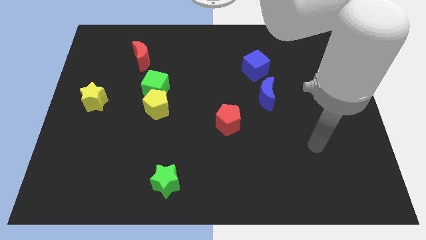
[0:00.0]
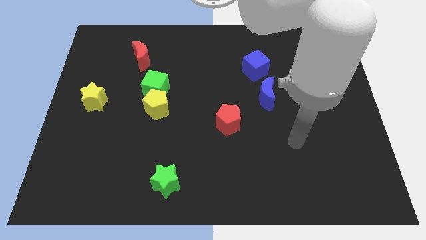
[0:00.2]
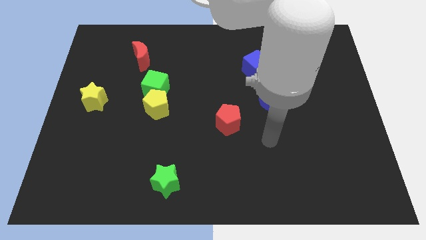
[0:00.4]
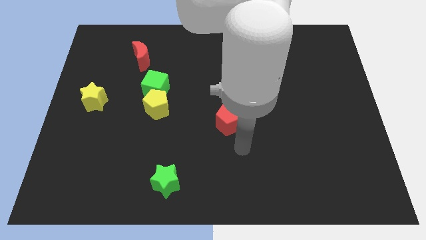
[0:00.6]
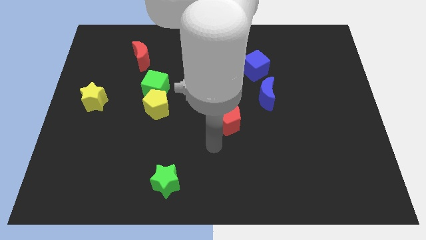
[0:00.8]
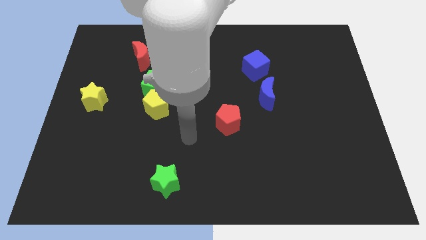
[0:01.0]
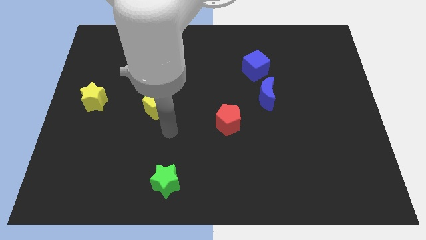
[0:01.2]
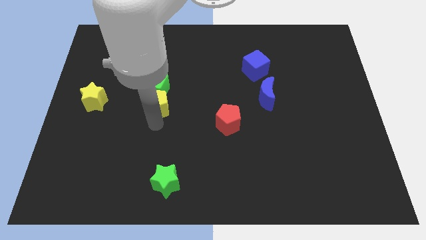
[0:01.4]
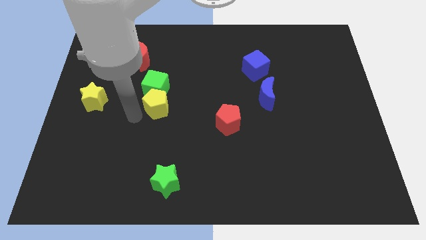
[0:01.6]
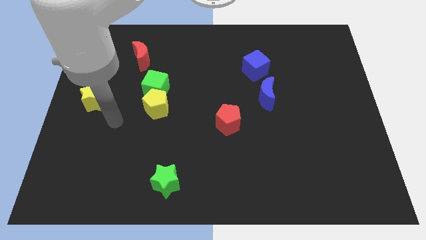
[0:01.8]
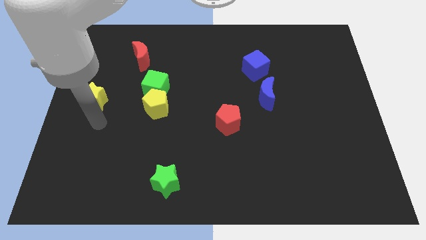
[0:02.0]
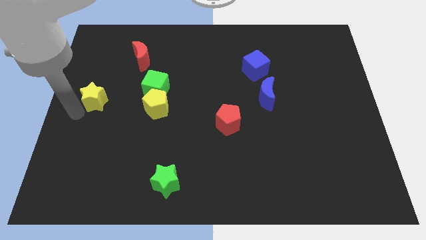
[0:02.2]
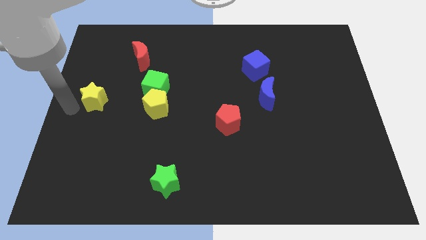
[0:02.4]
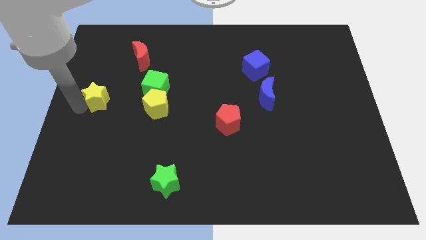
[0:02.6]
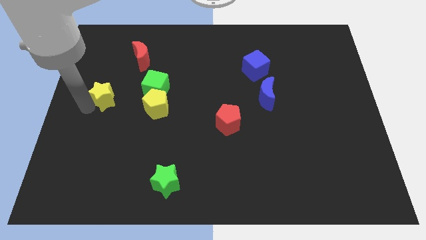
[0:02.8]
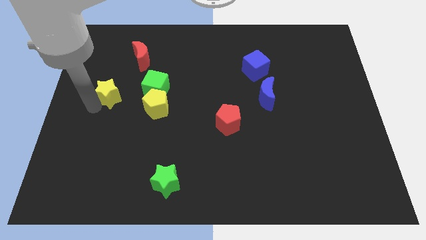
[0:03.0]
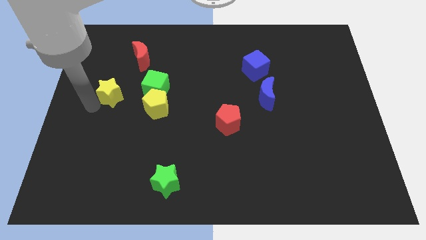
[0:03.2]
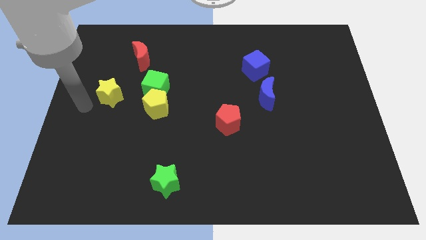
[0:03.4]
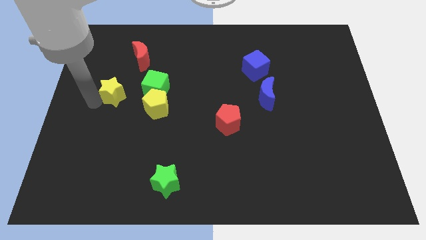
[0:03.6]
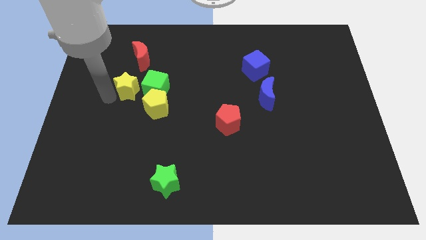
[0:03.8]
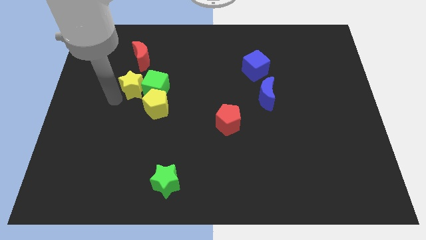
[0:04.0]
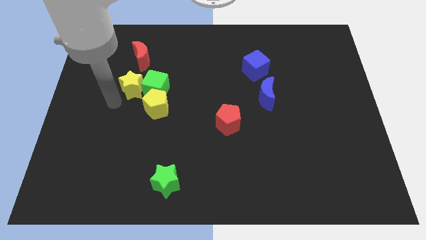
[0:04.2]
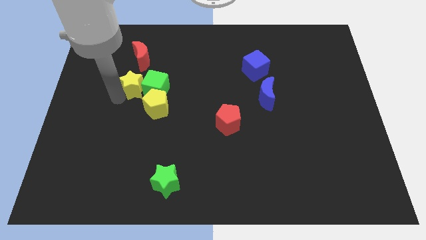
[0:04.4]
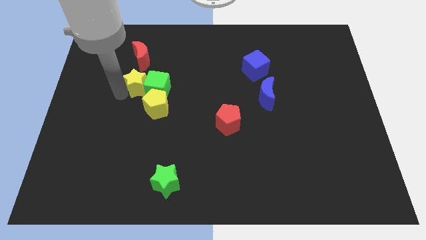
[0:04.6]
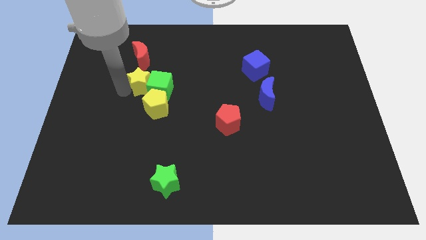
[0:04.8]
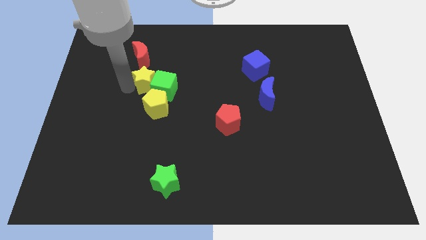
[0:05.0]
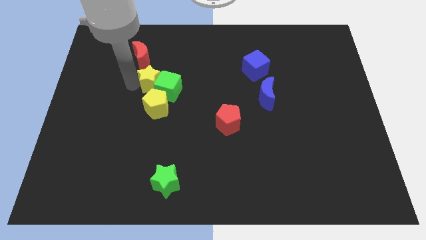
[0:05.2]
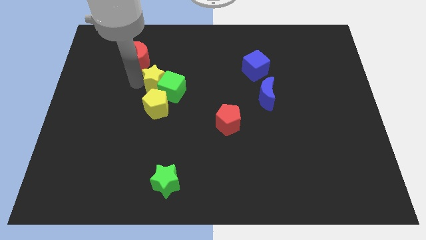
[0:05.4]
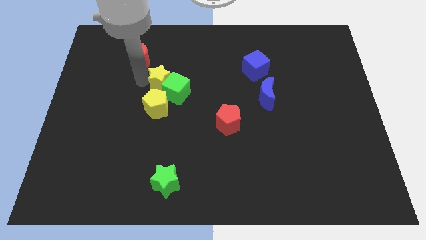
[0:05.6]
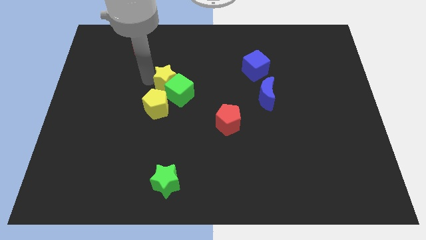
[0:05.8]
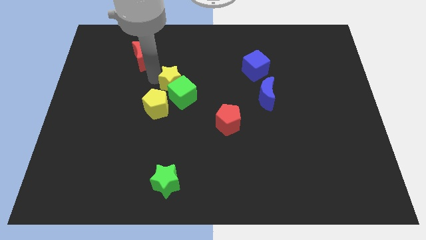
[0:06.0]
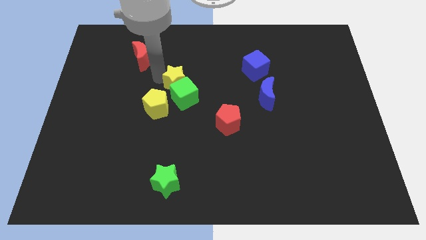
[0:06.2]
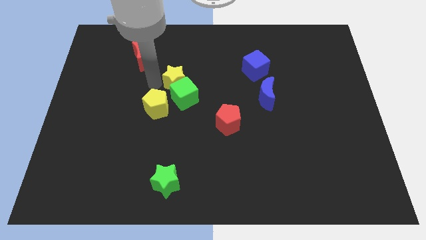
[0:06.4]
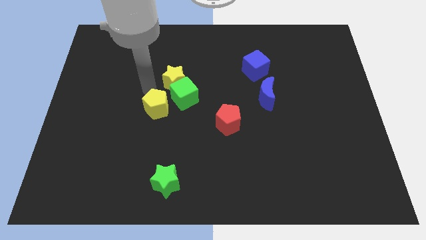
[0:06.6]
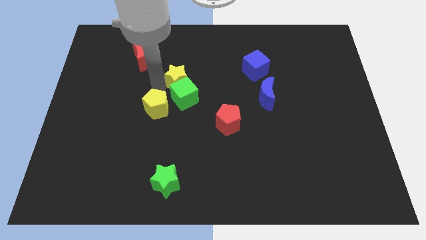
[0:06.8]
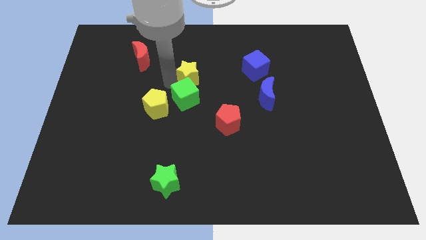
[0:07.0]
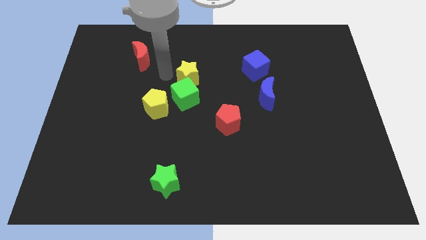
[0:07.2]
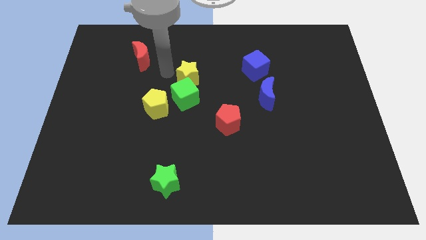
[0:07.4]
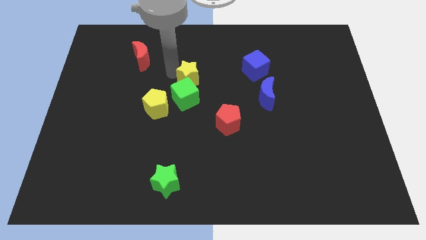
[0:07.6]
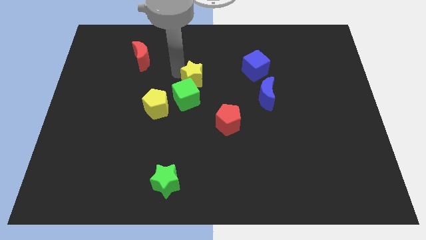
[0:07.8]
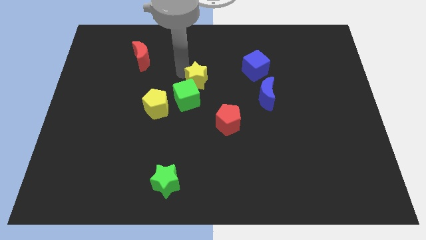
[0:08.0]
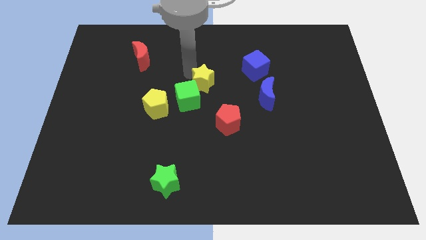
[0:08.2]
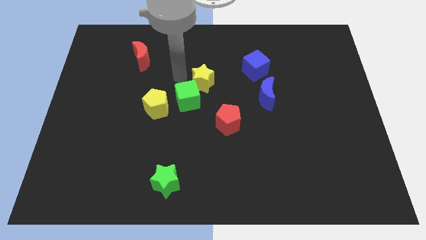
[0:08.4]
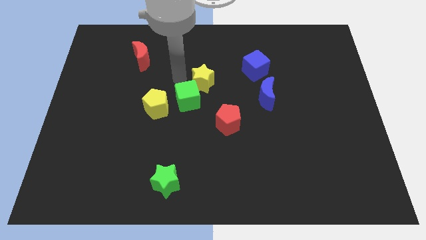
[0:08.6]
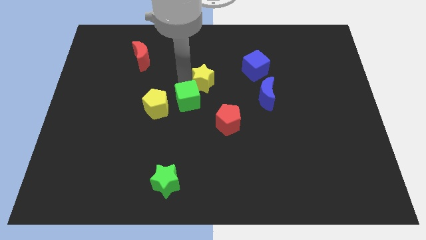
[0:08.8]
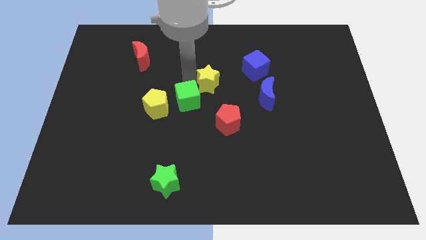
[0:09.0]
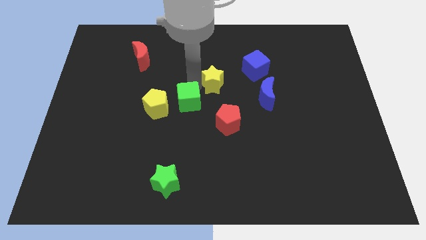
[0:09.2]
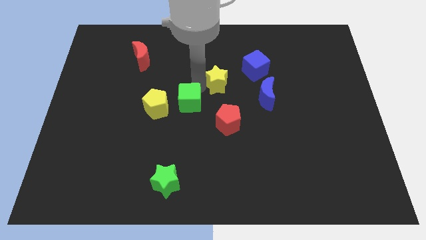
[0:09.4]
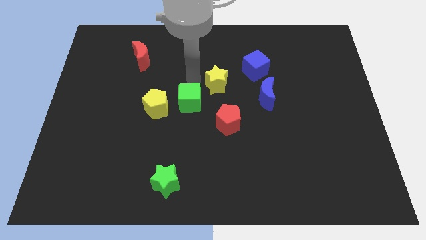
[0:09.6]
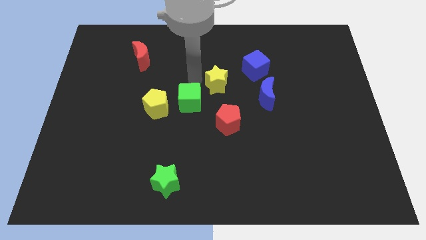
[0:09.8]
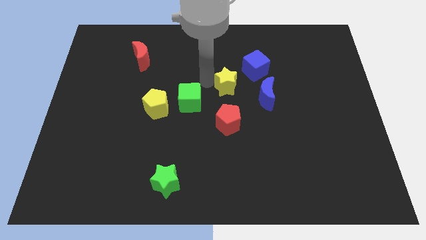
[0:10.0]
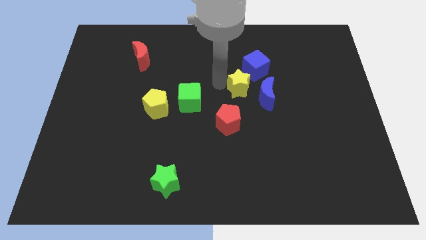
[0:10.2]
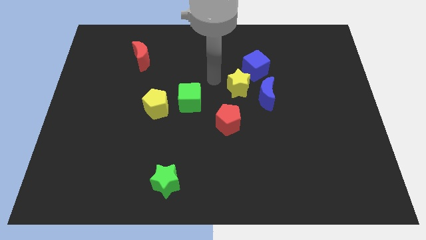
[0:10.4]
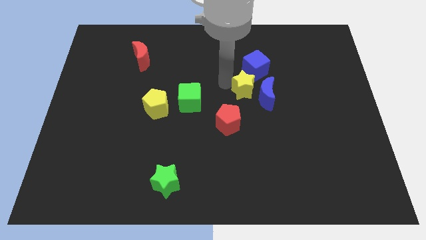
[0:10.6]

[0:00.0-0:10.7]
move the yellow star to the blue moon

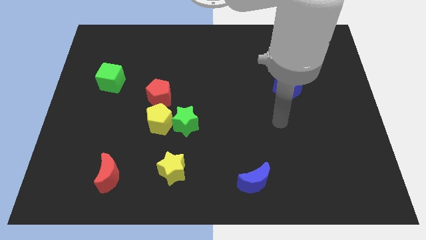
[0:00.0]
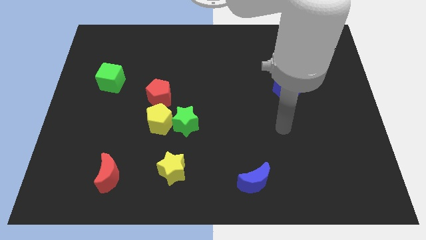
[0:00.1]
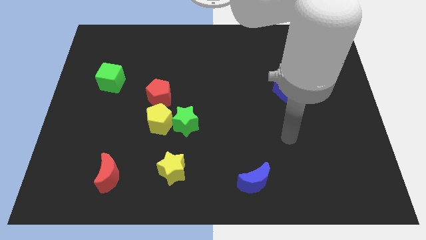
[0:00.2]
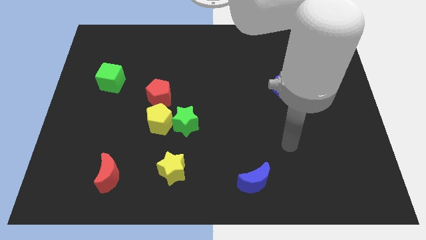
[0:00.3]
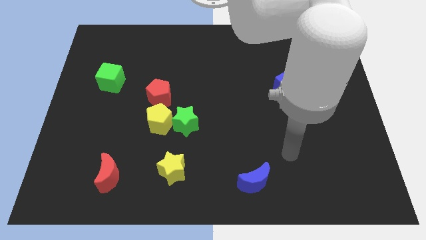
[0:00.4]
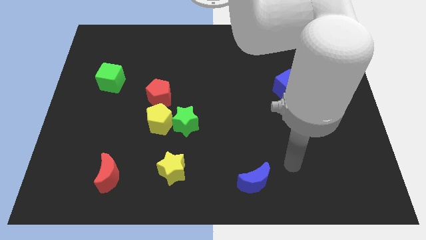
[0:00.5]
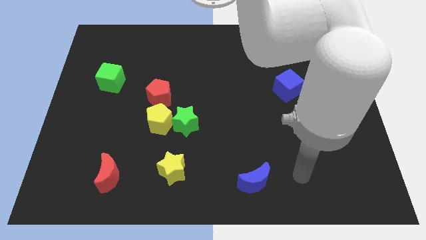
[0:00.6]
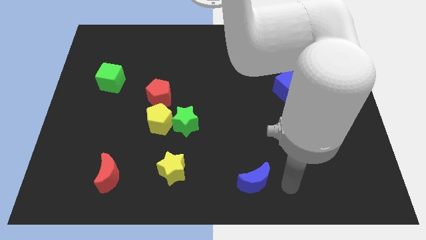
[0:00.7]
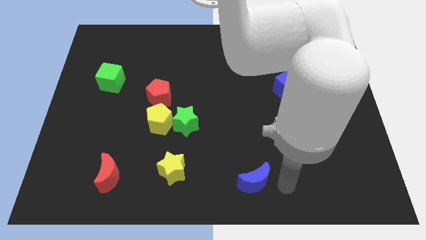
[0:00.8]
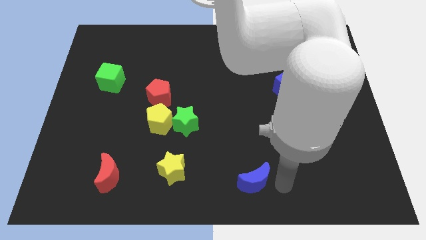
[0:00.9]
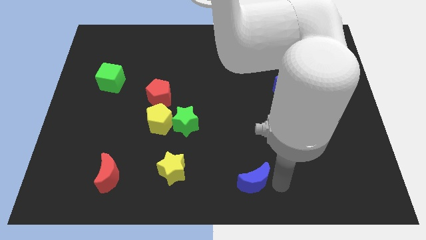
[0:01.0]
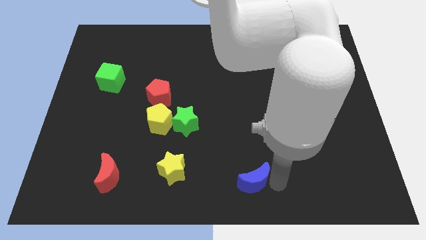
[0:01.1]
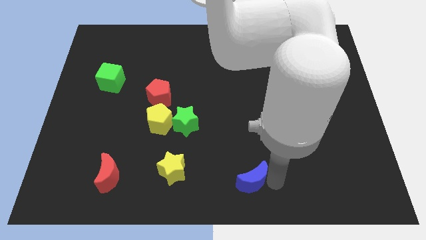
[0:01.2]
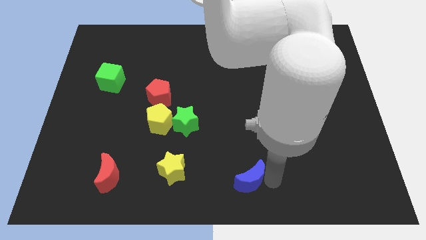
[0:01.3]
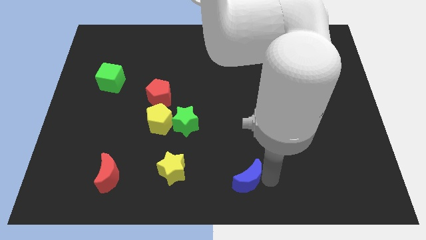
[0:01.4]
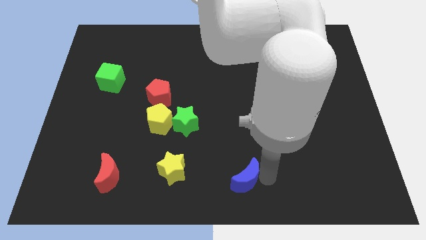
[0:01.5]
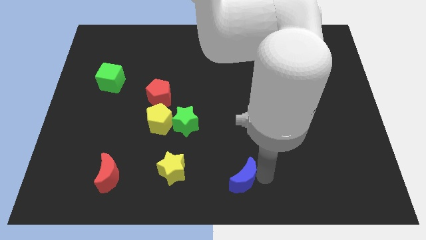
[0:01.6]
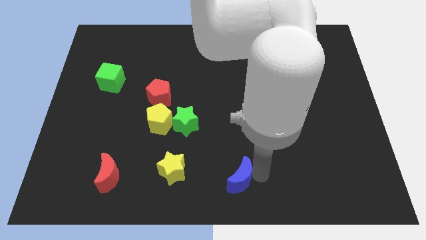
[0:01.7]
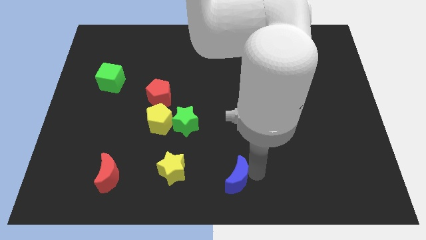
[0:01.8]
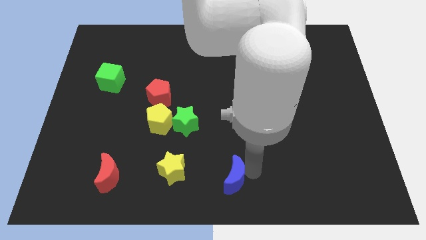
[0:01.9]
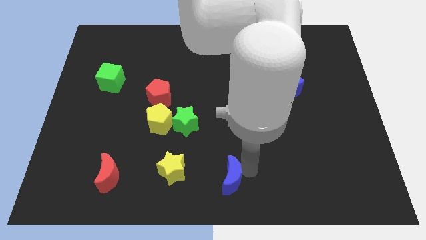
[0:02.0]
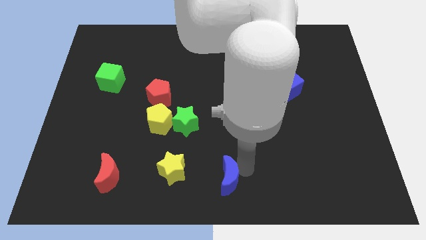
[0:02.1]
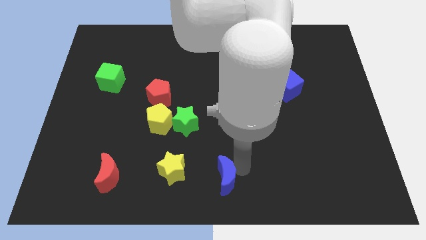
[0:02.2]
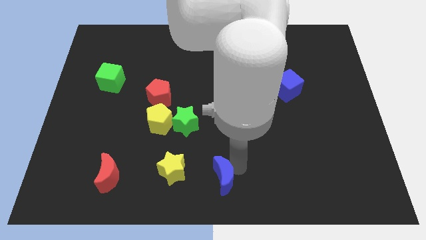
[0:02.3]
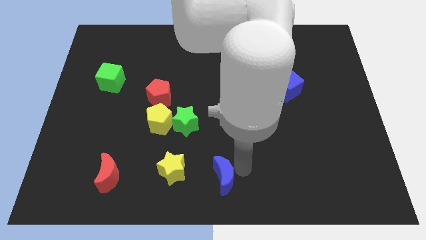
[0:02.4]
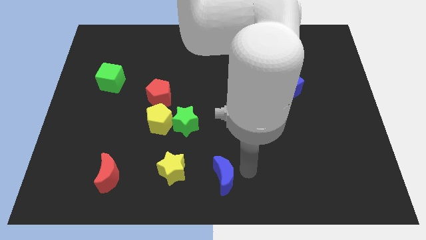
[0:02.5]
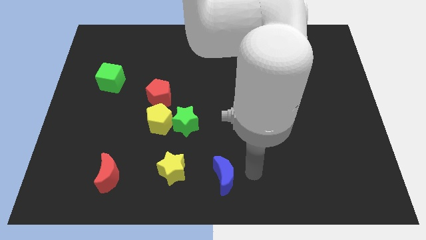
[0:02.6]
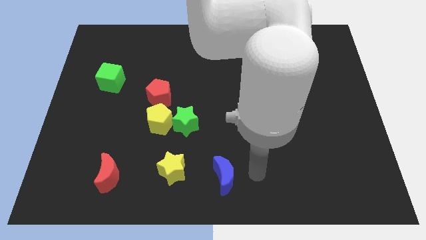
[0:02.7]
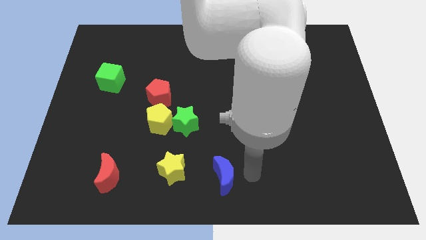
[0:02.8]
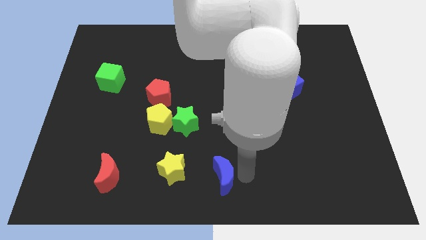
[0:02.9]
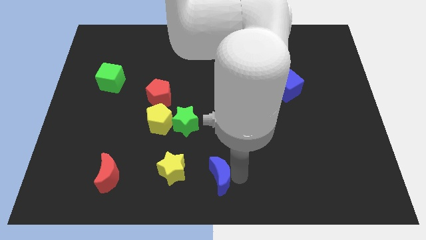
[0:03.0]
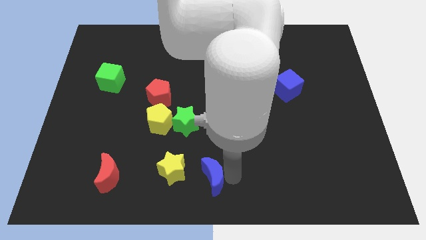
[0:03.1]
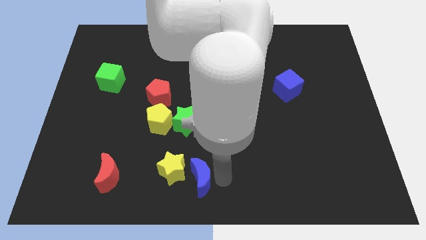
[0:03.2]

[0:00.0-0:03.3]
push the blue moon to the yellow star
